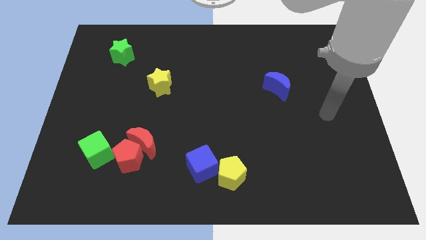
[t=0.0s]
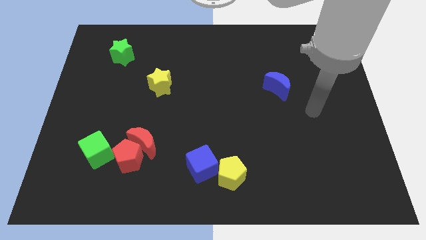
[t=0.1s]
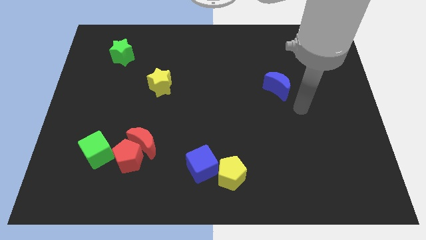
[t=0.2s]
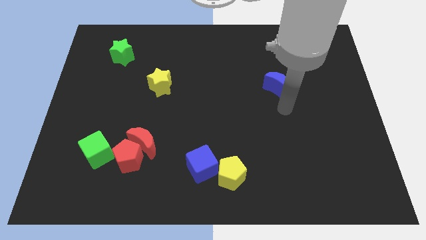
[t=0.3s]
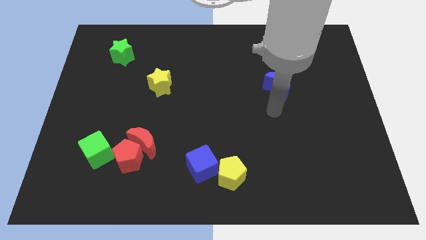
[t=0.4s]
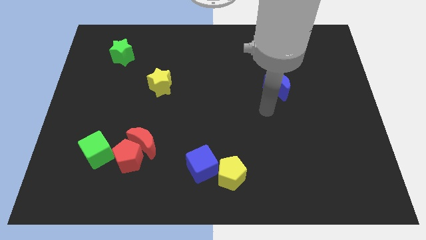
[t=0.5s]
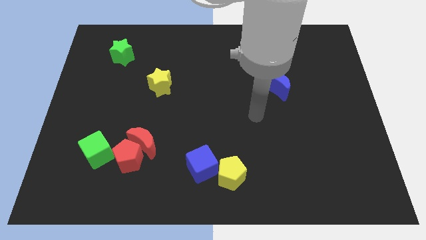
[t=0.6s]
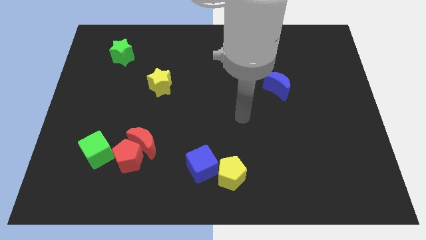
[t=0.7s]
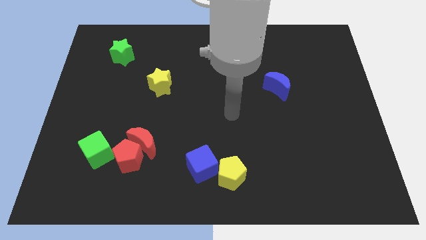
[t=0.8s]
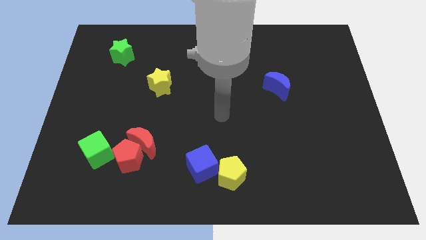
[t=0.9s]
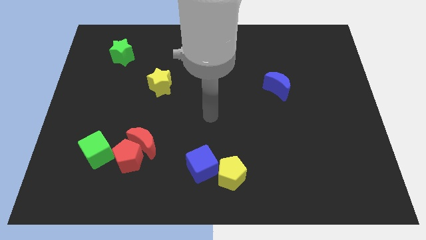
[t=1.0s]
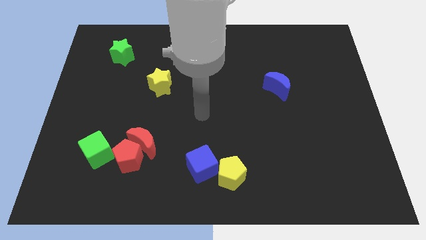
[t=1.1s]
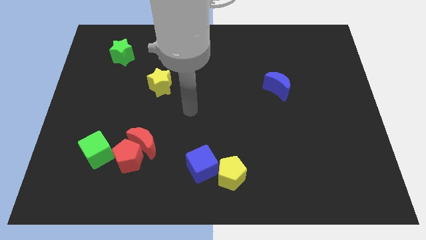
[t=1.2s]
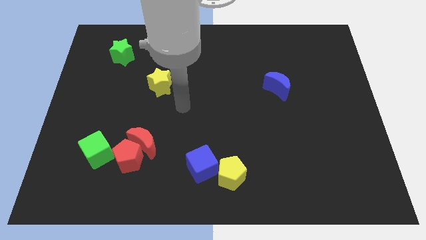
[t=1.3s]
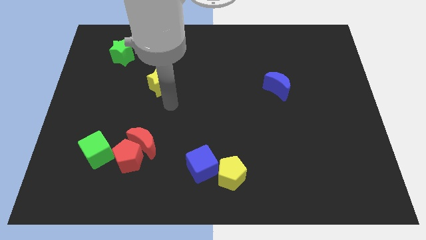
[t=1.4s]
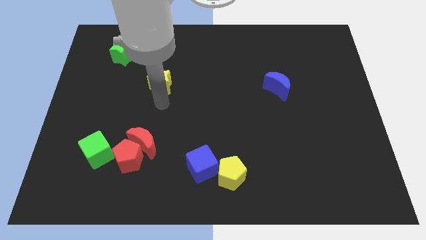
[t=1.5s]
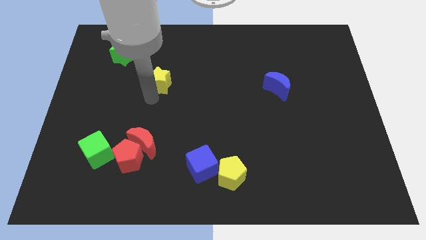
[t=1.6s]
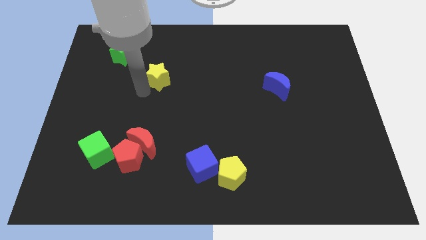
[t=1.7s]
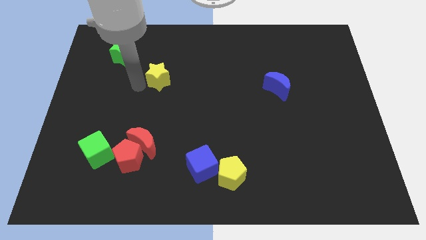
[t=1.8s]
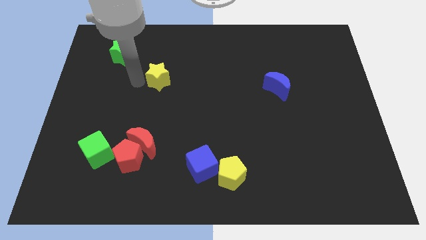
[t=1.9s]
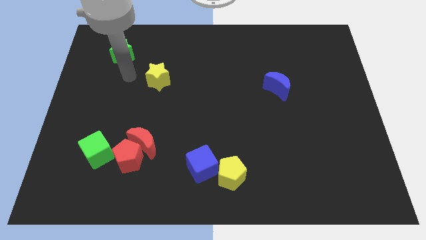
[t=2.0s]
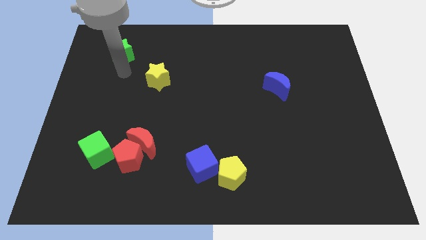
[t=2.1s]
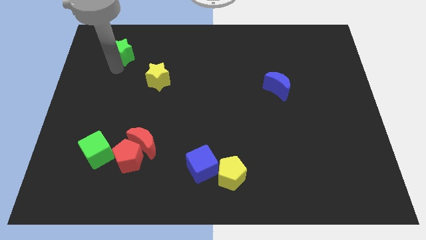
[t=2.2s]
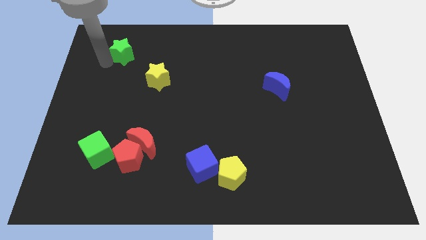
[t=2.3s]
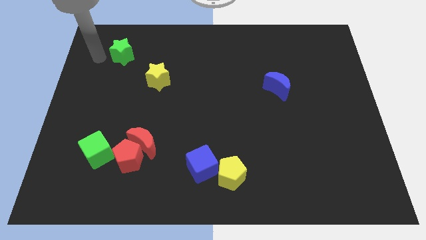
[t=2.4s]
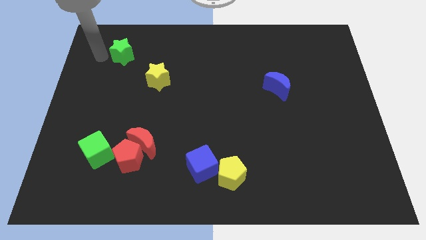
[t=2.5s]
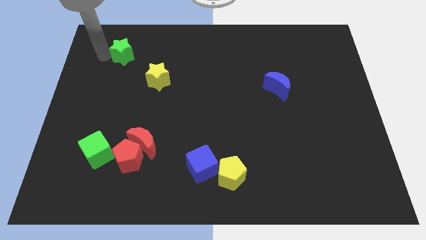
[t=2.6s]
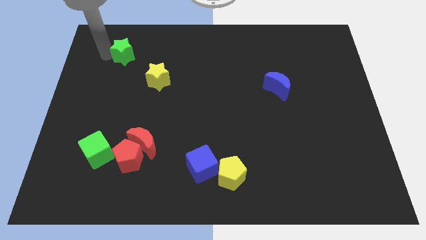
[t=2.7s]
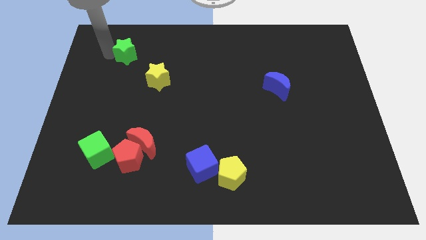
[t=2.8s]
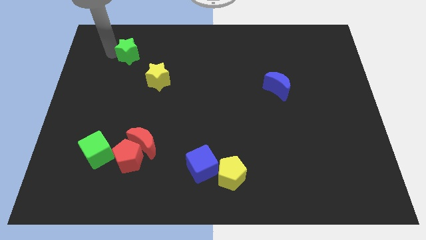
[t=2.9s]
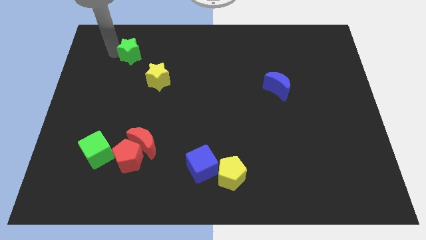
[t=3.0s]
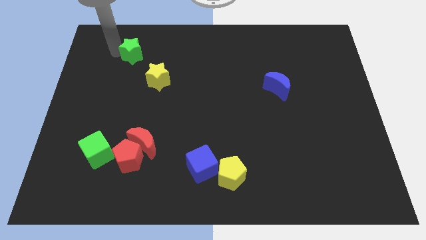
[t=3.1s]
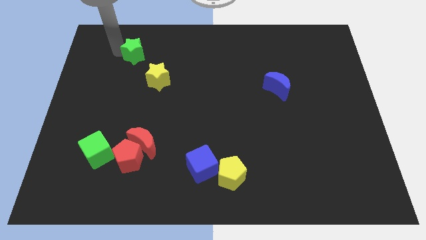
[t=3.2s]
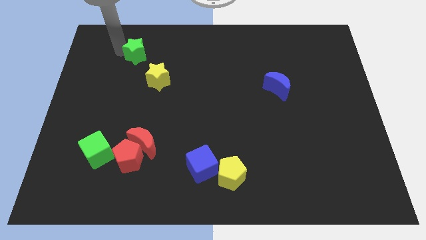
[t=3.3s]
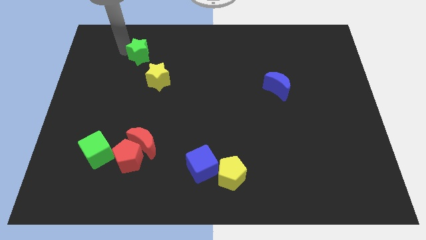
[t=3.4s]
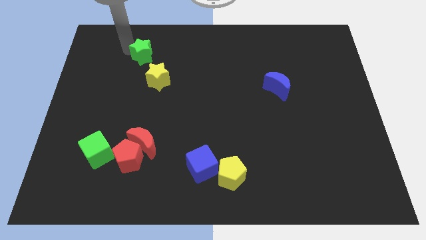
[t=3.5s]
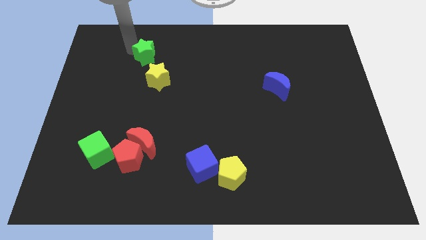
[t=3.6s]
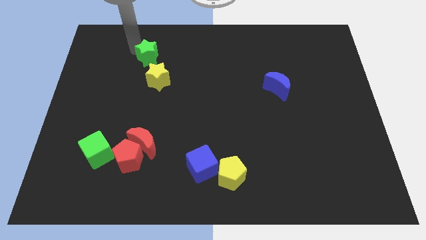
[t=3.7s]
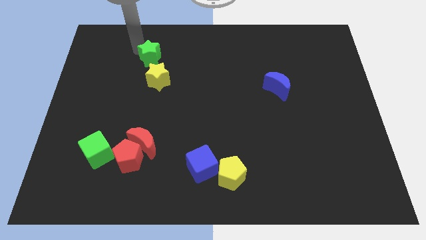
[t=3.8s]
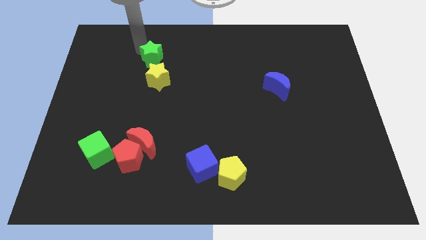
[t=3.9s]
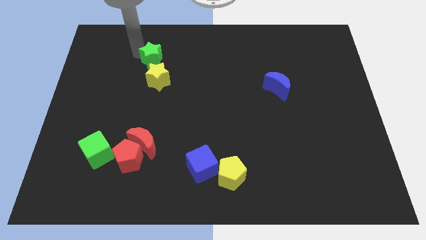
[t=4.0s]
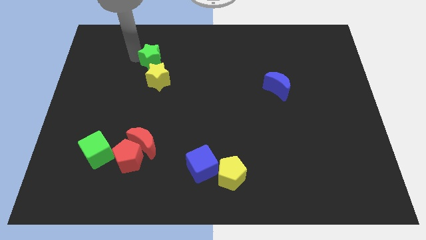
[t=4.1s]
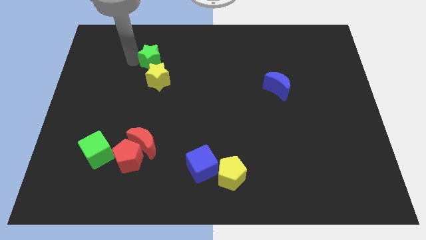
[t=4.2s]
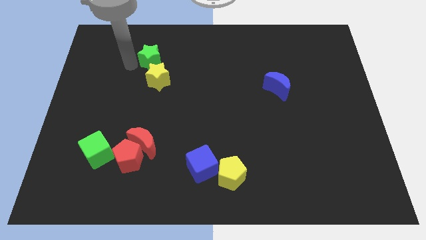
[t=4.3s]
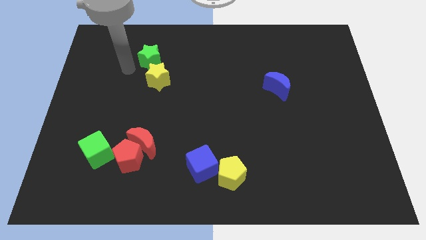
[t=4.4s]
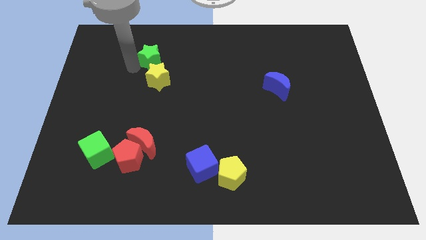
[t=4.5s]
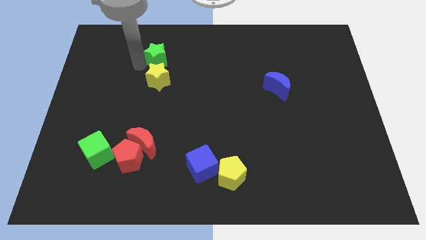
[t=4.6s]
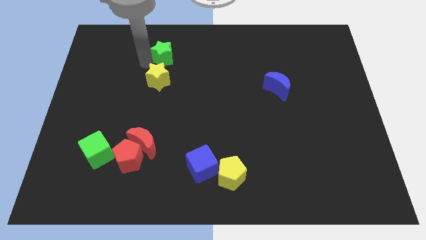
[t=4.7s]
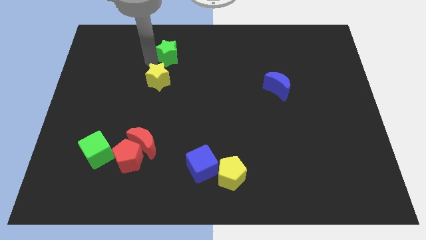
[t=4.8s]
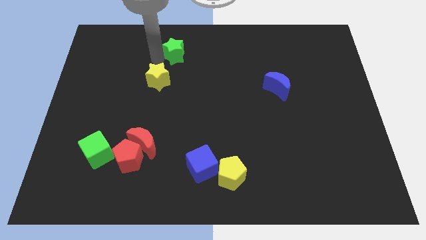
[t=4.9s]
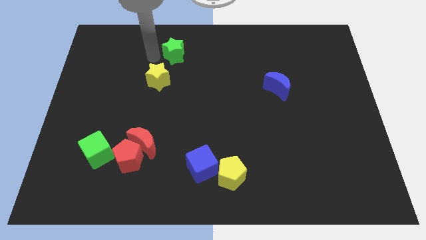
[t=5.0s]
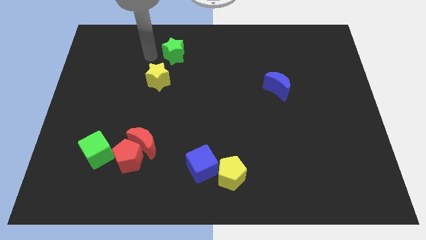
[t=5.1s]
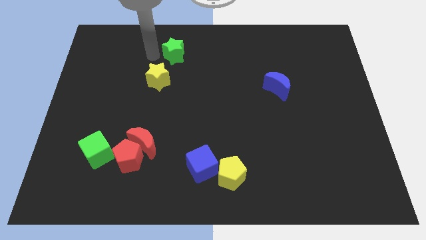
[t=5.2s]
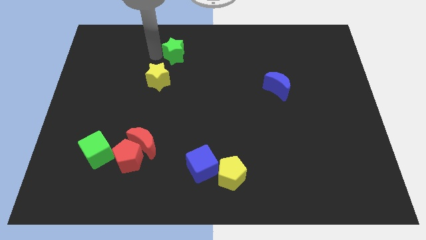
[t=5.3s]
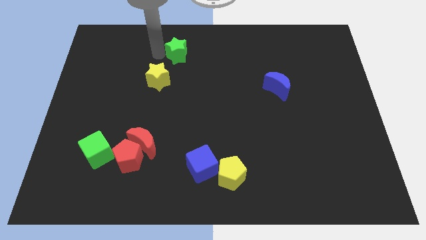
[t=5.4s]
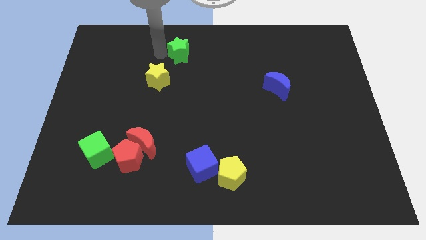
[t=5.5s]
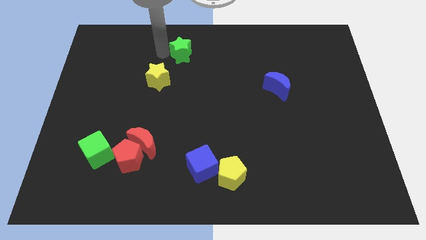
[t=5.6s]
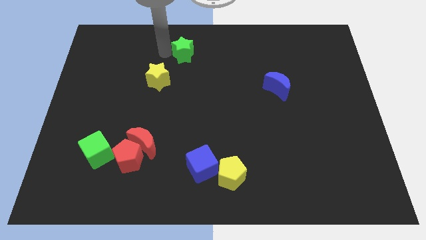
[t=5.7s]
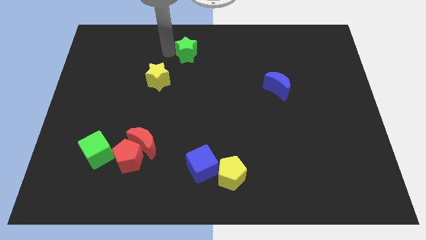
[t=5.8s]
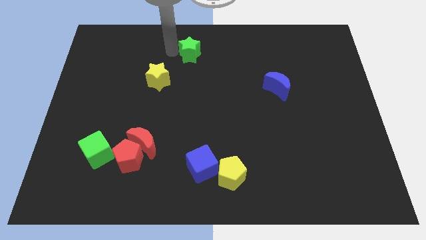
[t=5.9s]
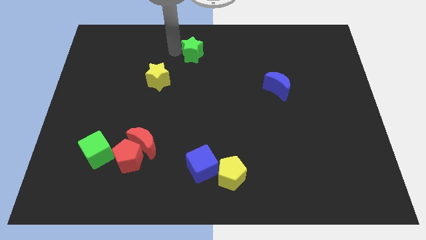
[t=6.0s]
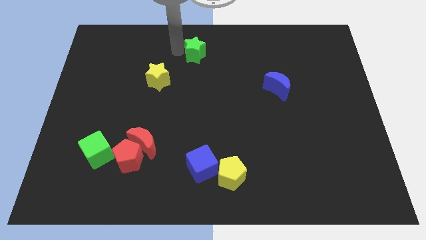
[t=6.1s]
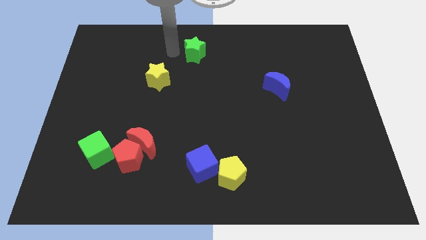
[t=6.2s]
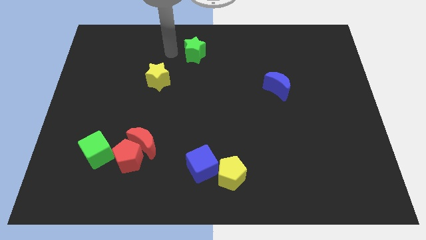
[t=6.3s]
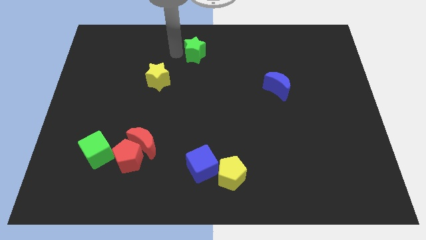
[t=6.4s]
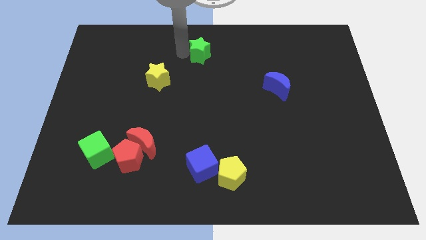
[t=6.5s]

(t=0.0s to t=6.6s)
push the green star right

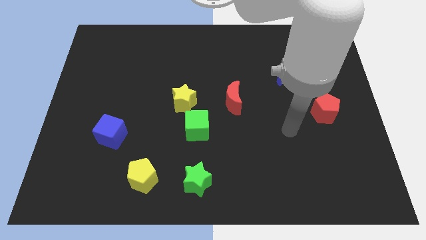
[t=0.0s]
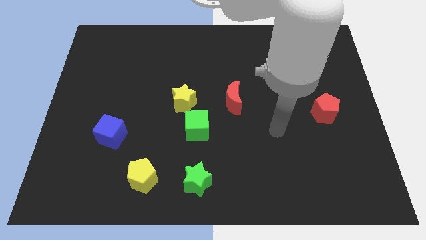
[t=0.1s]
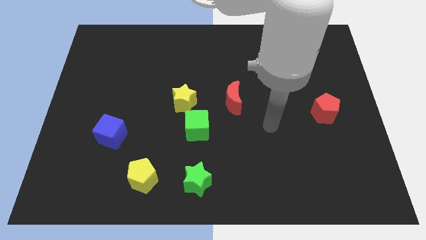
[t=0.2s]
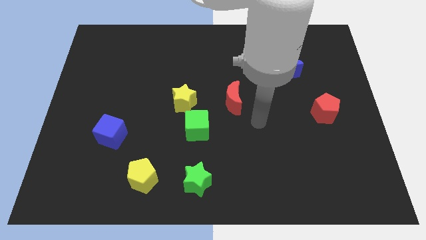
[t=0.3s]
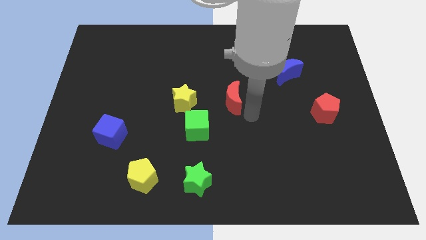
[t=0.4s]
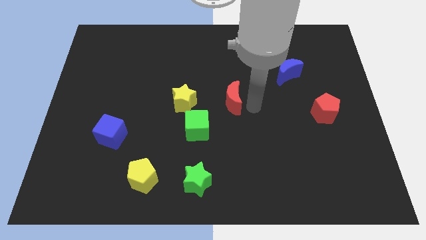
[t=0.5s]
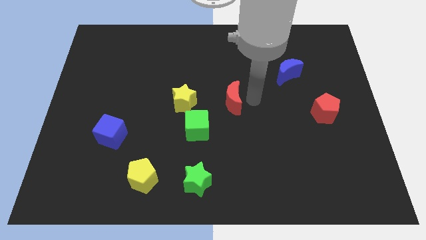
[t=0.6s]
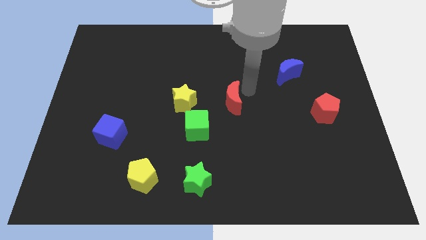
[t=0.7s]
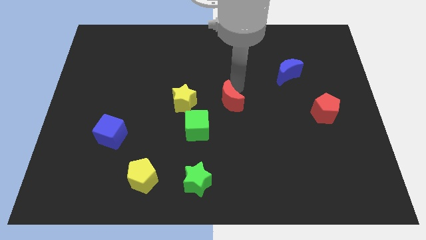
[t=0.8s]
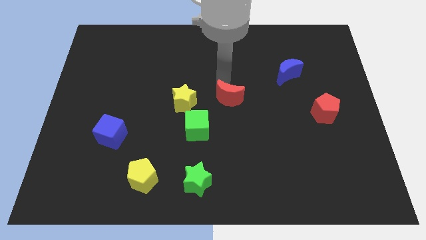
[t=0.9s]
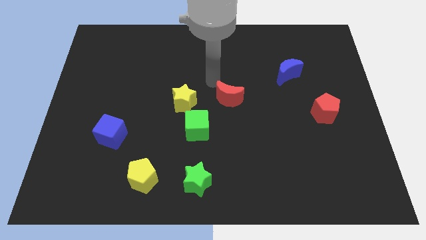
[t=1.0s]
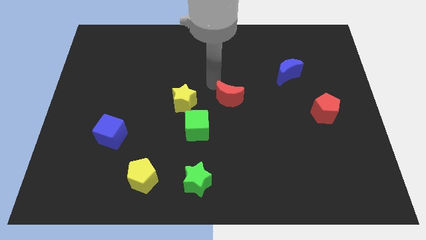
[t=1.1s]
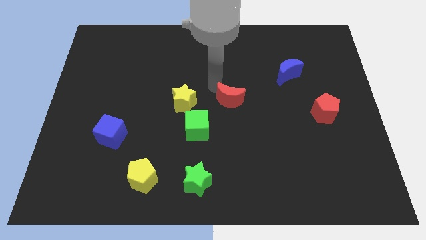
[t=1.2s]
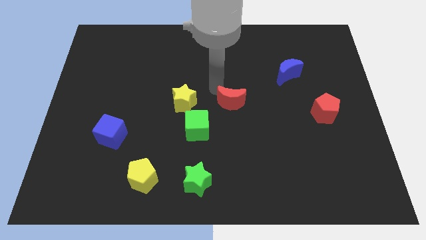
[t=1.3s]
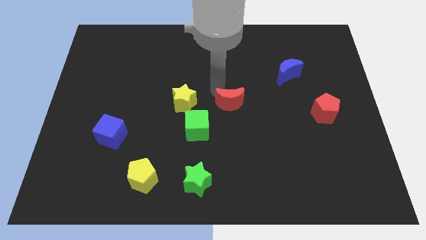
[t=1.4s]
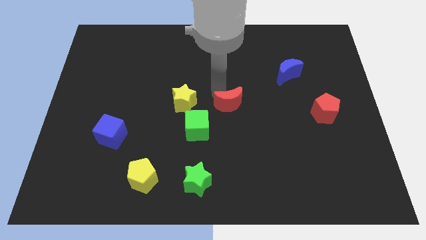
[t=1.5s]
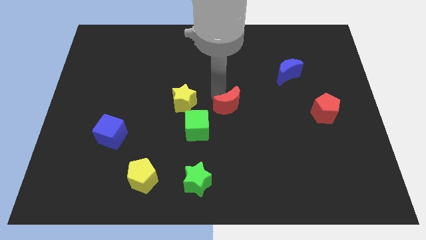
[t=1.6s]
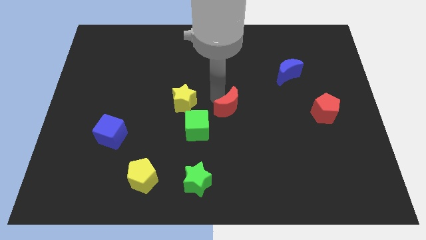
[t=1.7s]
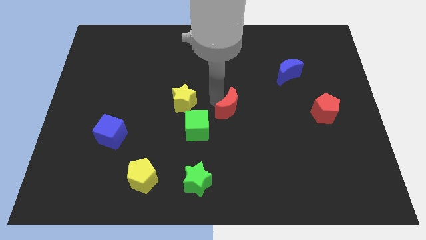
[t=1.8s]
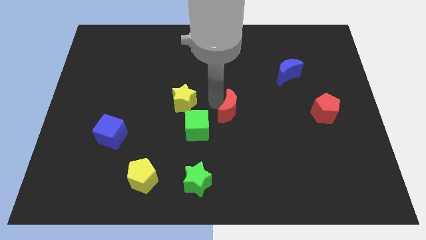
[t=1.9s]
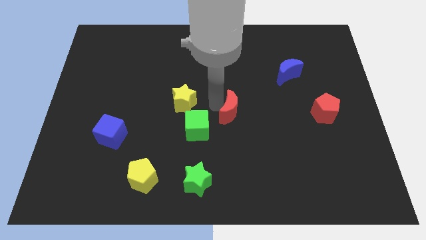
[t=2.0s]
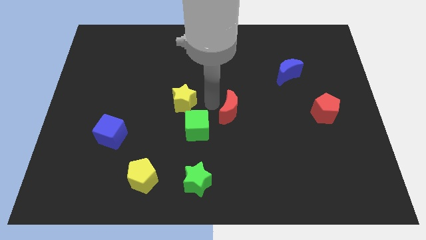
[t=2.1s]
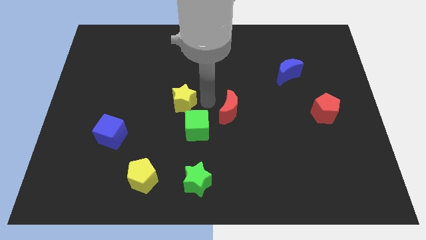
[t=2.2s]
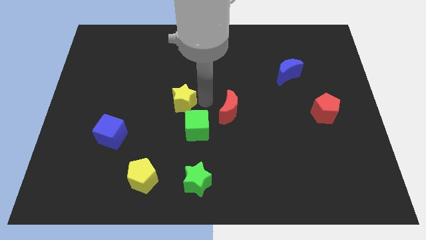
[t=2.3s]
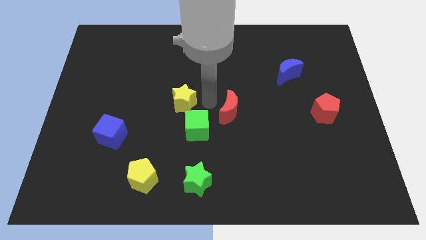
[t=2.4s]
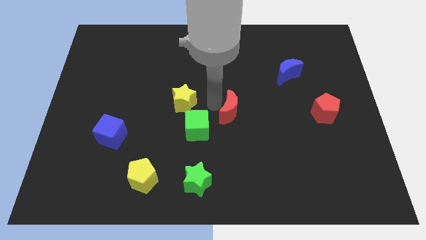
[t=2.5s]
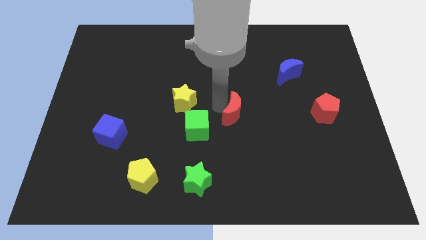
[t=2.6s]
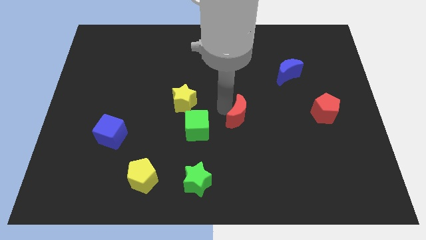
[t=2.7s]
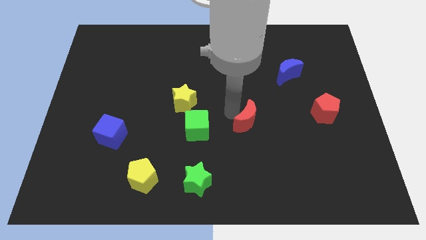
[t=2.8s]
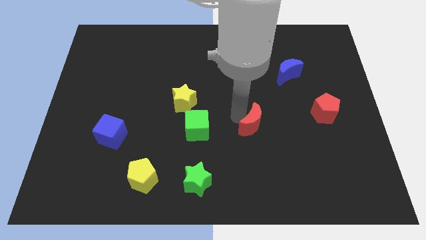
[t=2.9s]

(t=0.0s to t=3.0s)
slightly slide the red moon down and right diagonally
